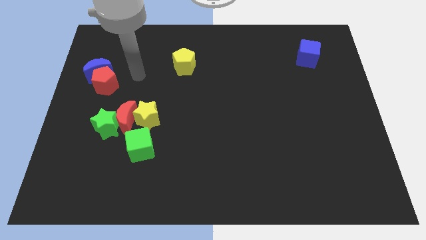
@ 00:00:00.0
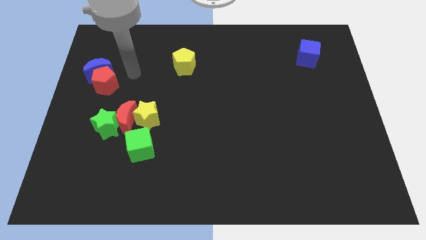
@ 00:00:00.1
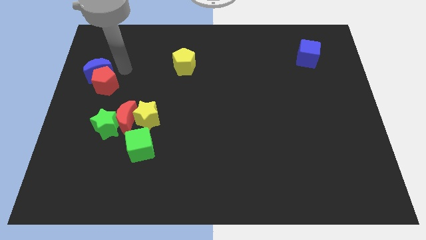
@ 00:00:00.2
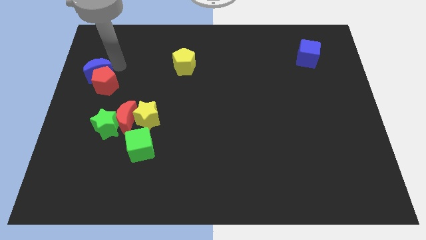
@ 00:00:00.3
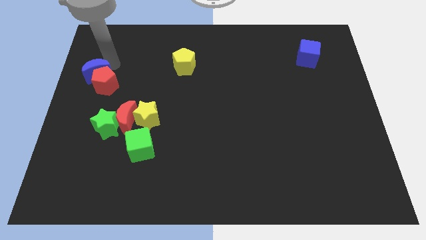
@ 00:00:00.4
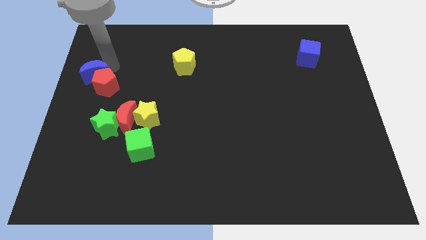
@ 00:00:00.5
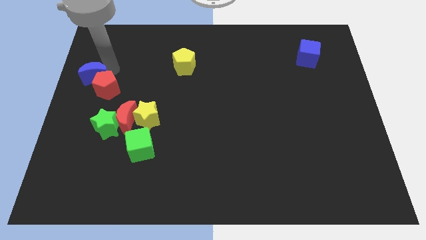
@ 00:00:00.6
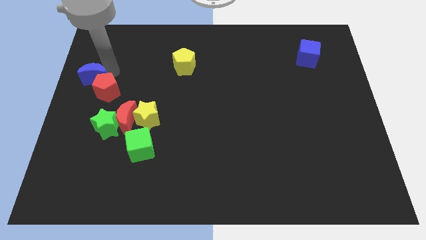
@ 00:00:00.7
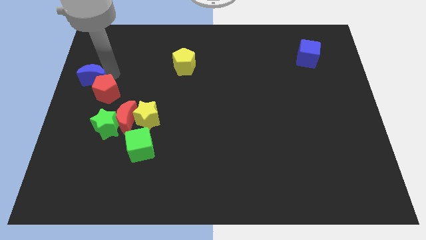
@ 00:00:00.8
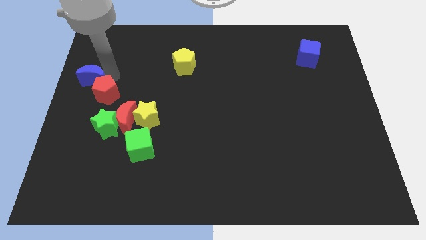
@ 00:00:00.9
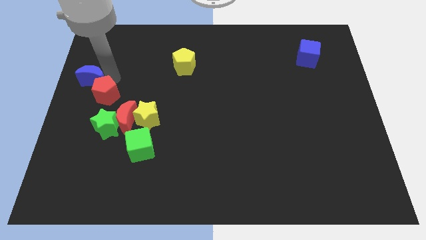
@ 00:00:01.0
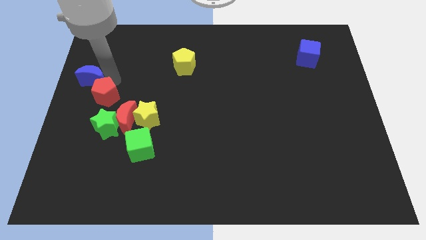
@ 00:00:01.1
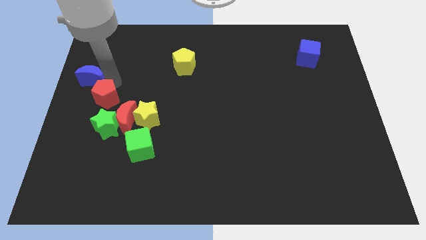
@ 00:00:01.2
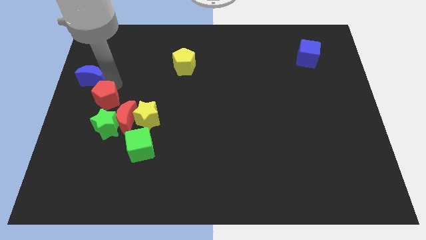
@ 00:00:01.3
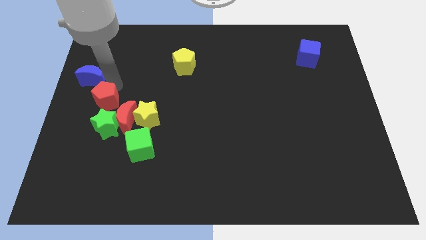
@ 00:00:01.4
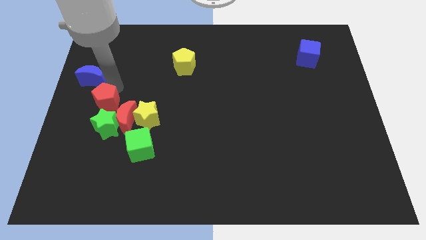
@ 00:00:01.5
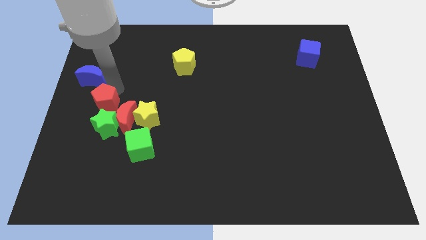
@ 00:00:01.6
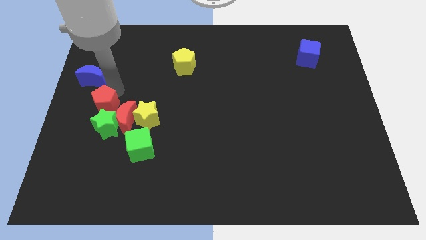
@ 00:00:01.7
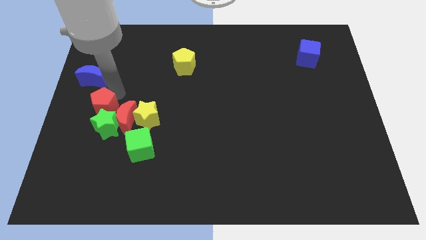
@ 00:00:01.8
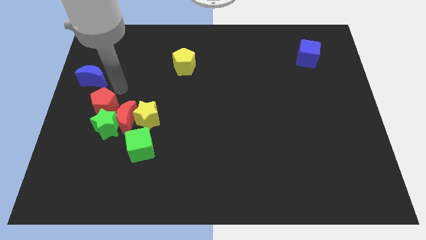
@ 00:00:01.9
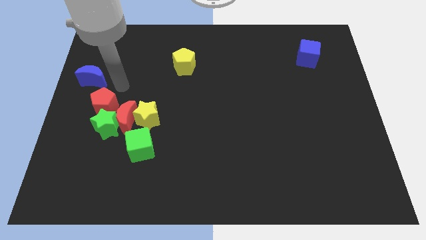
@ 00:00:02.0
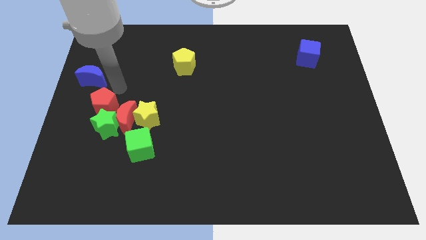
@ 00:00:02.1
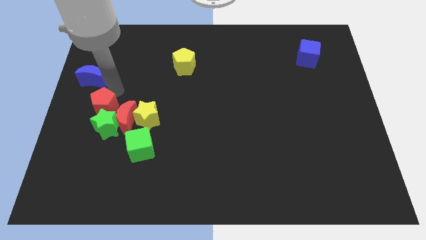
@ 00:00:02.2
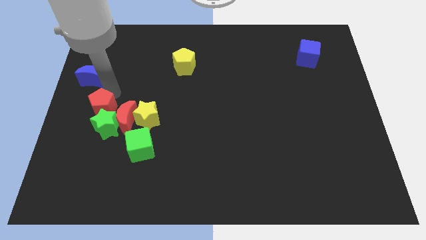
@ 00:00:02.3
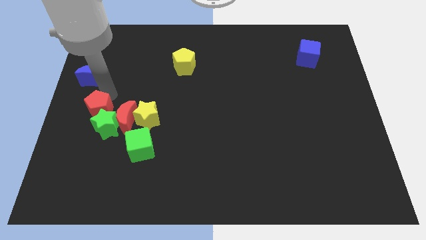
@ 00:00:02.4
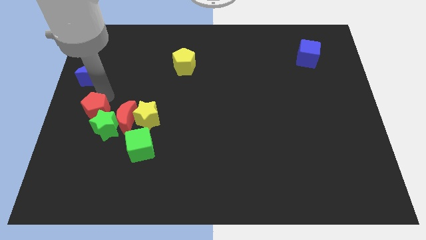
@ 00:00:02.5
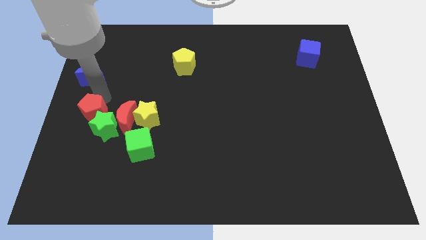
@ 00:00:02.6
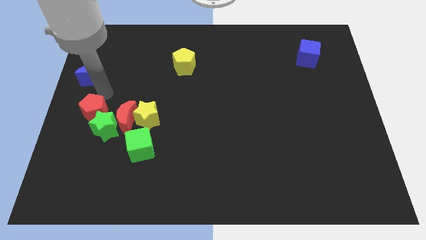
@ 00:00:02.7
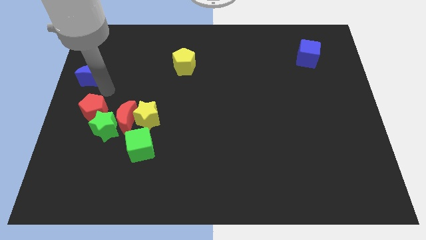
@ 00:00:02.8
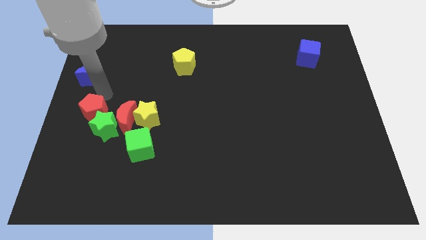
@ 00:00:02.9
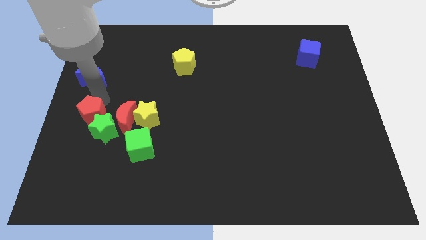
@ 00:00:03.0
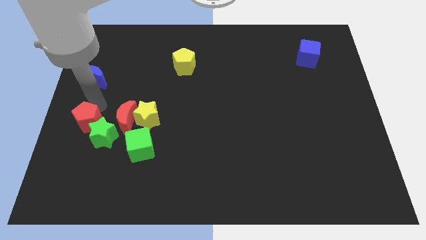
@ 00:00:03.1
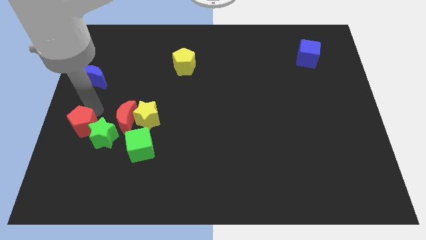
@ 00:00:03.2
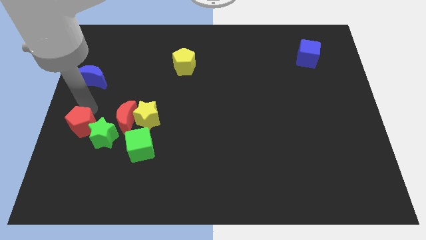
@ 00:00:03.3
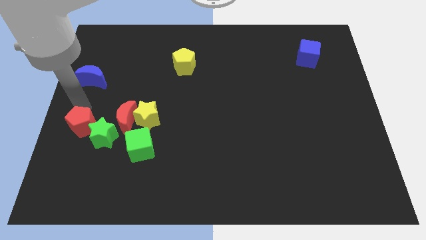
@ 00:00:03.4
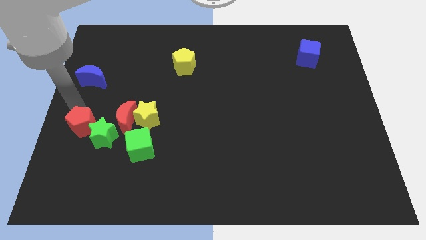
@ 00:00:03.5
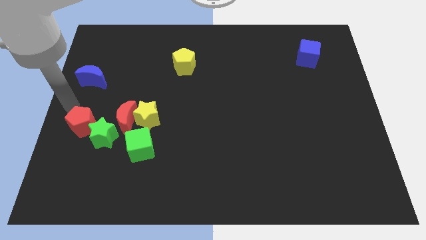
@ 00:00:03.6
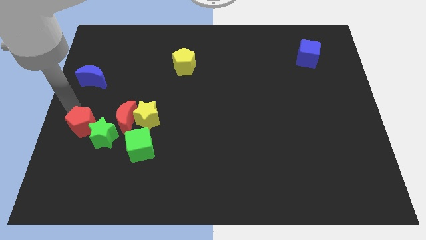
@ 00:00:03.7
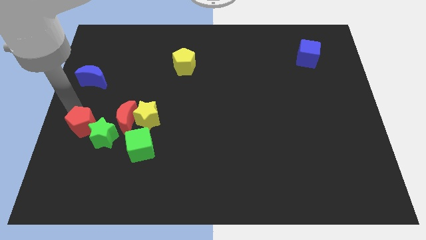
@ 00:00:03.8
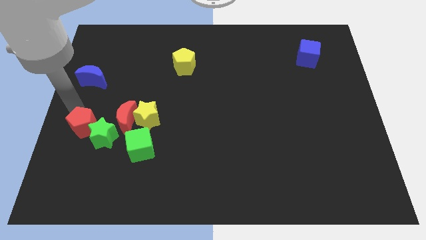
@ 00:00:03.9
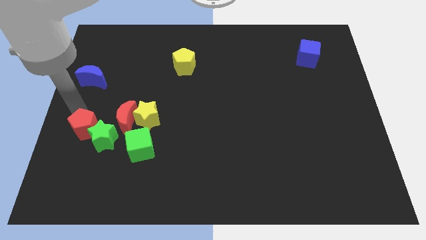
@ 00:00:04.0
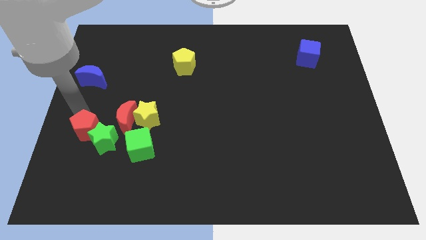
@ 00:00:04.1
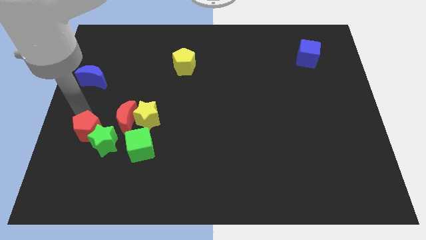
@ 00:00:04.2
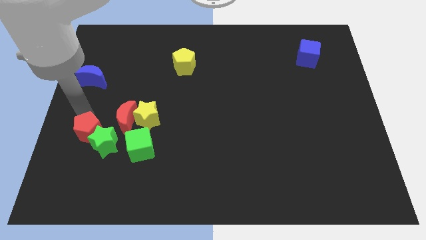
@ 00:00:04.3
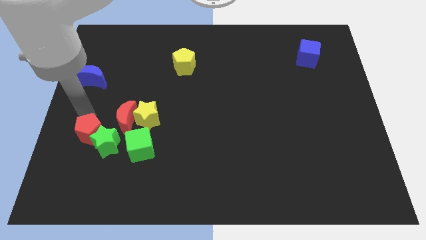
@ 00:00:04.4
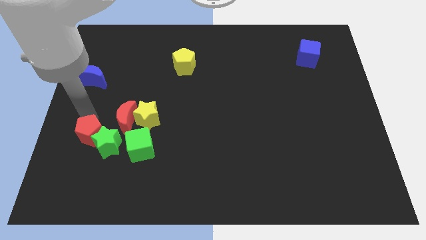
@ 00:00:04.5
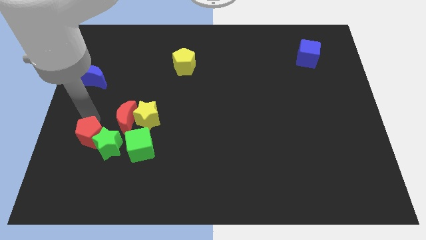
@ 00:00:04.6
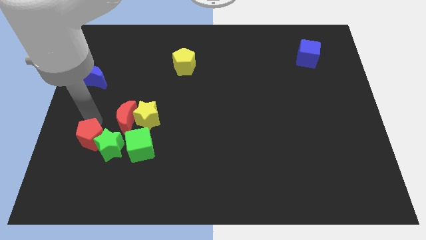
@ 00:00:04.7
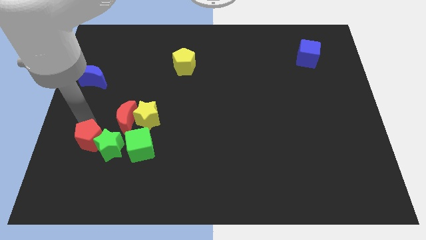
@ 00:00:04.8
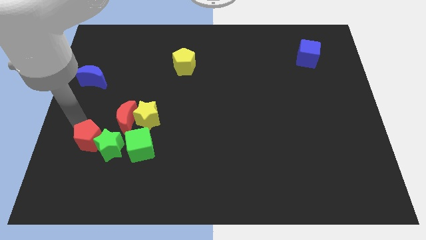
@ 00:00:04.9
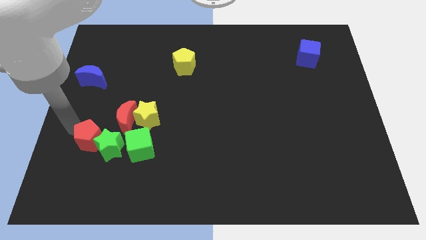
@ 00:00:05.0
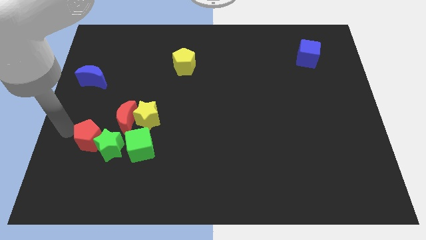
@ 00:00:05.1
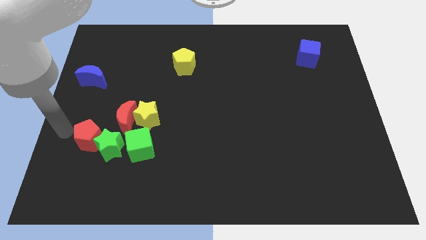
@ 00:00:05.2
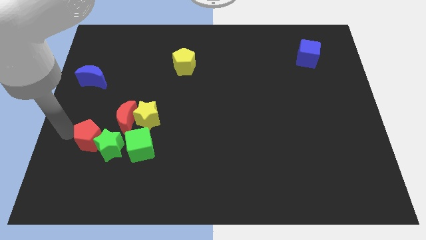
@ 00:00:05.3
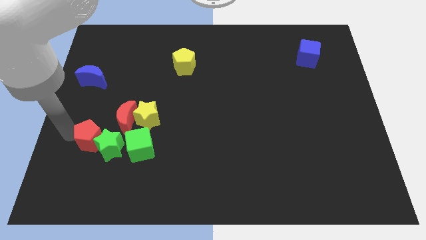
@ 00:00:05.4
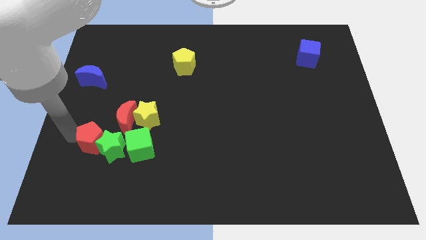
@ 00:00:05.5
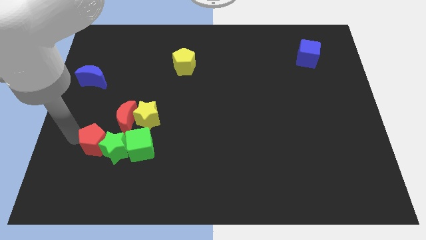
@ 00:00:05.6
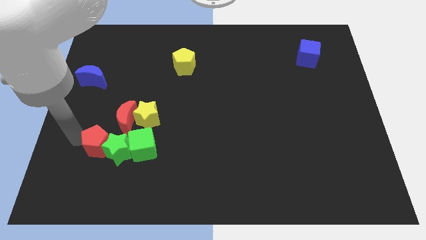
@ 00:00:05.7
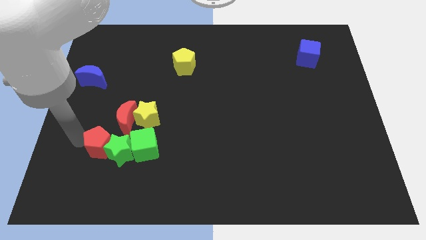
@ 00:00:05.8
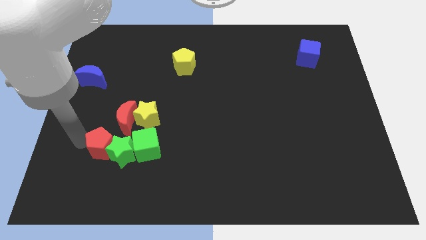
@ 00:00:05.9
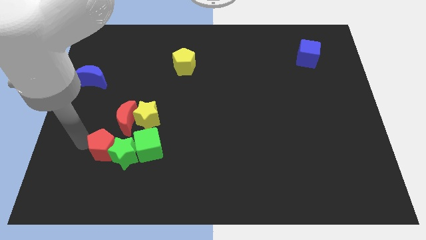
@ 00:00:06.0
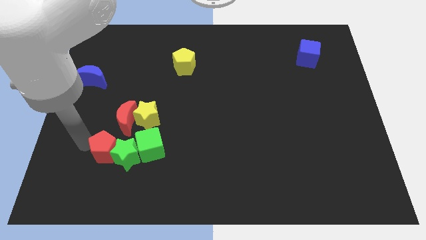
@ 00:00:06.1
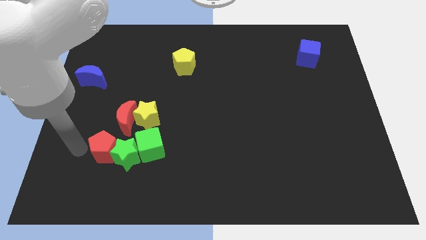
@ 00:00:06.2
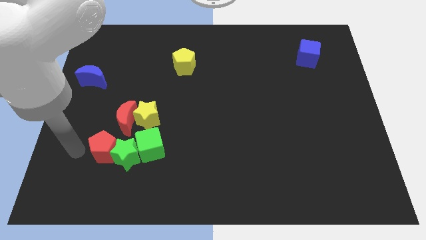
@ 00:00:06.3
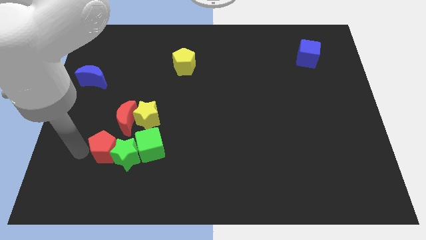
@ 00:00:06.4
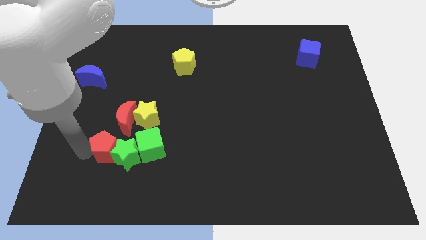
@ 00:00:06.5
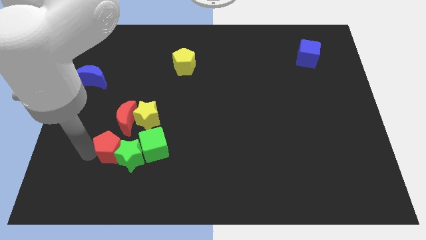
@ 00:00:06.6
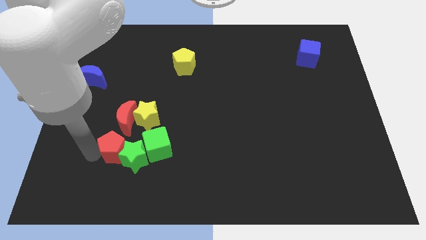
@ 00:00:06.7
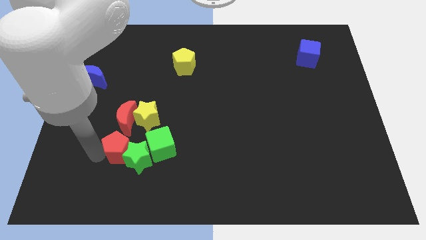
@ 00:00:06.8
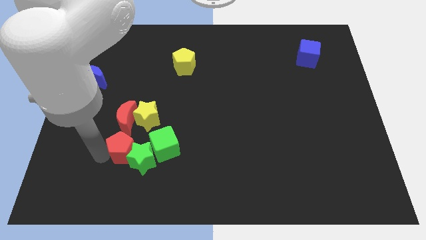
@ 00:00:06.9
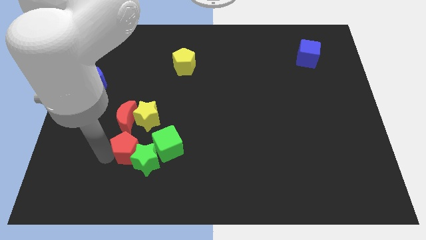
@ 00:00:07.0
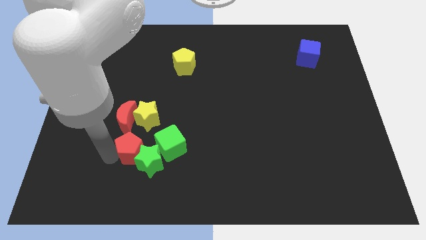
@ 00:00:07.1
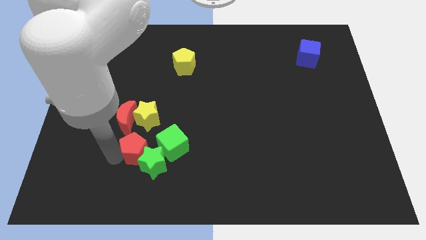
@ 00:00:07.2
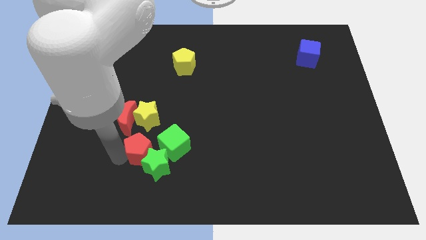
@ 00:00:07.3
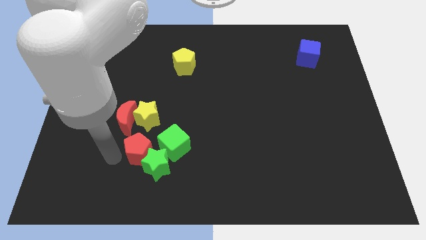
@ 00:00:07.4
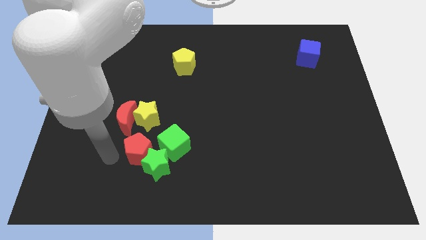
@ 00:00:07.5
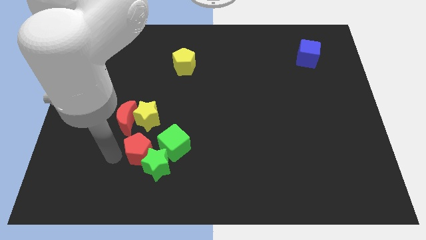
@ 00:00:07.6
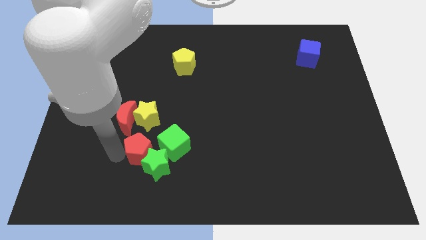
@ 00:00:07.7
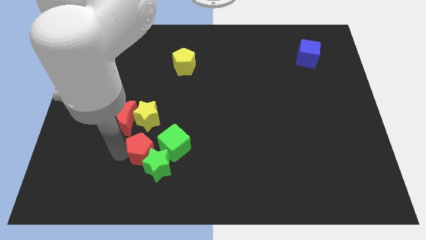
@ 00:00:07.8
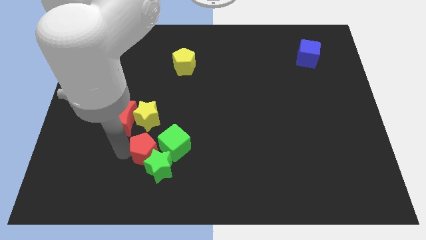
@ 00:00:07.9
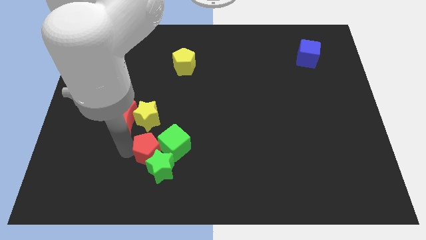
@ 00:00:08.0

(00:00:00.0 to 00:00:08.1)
push the red pentagon next to the green cube
